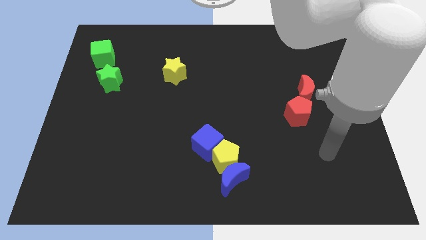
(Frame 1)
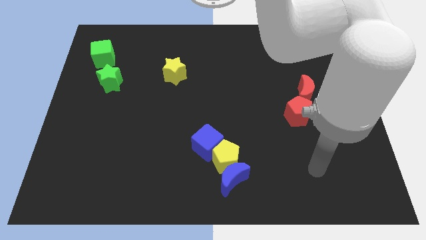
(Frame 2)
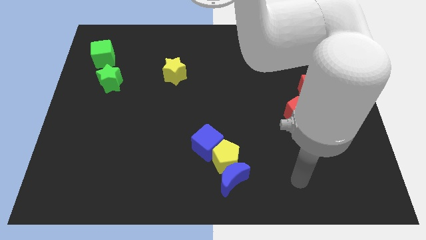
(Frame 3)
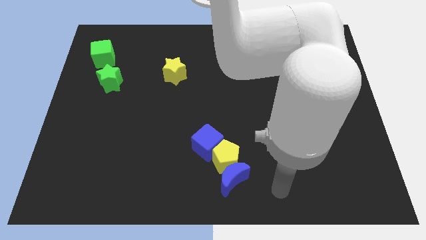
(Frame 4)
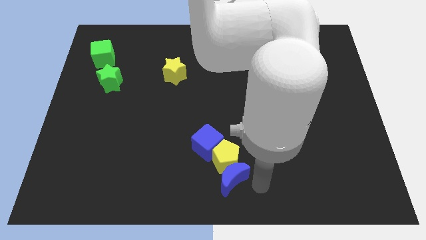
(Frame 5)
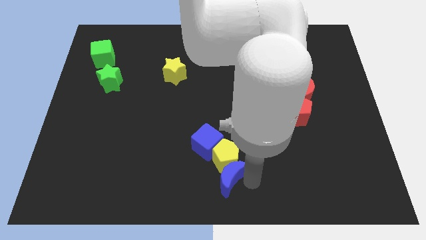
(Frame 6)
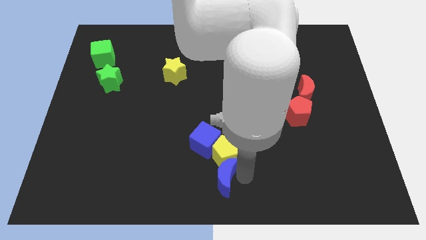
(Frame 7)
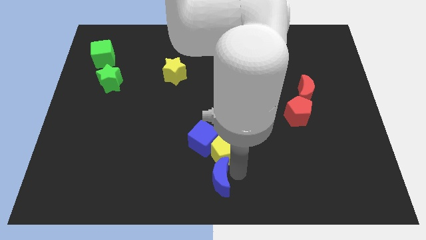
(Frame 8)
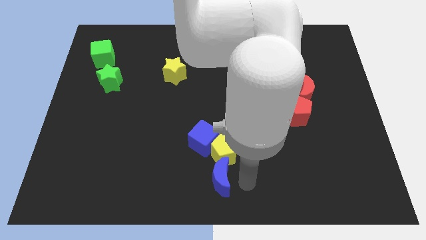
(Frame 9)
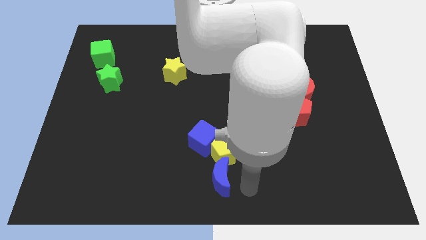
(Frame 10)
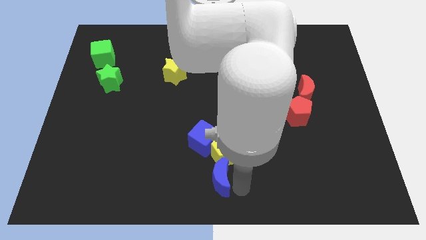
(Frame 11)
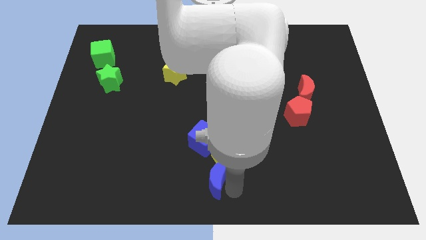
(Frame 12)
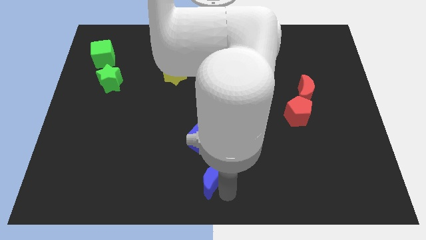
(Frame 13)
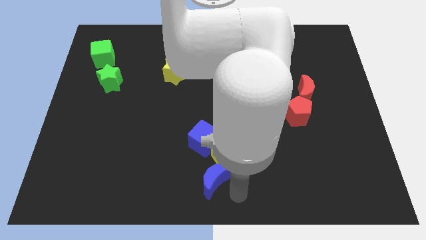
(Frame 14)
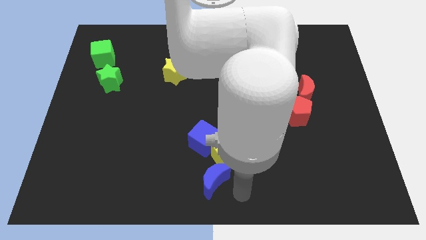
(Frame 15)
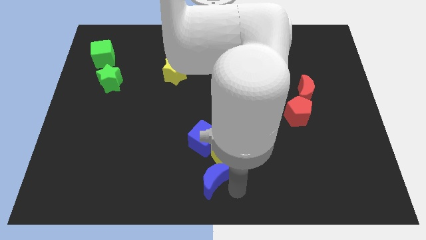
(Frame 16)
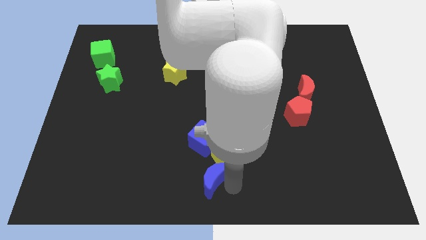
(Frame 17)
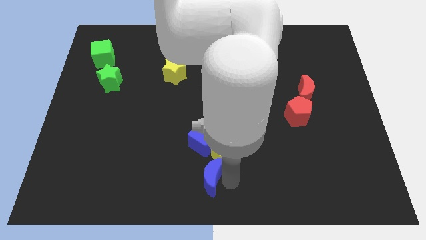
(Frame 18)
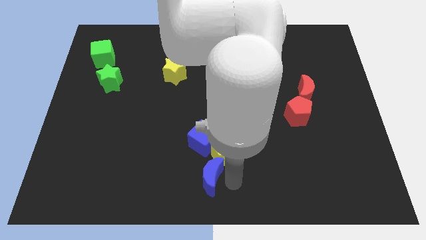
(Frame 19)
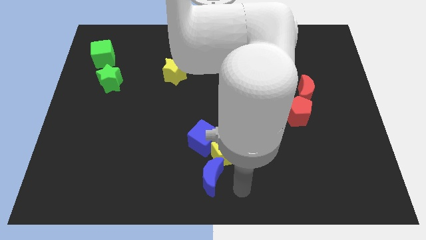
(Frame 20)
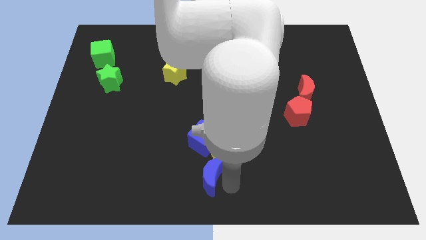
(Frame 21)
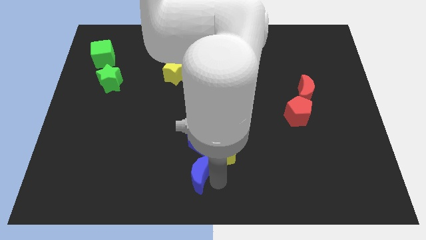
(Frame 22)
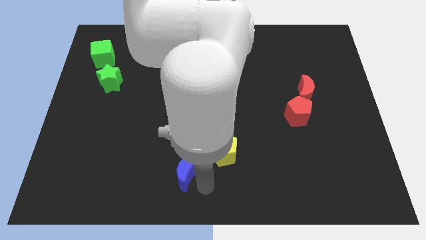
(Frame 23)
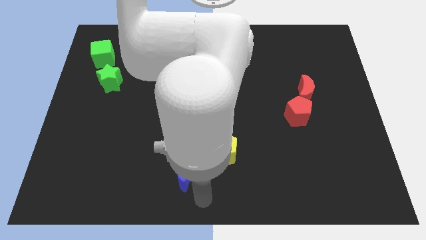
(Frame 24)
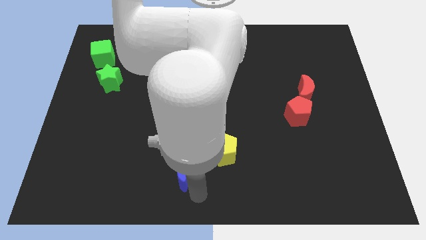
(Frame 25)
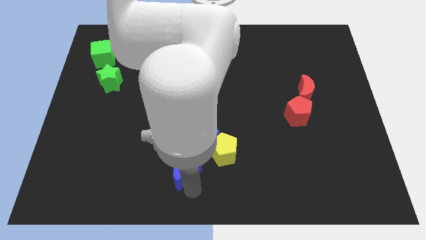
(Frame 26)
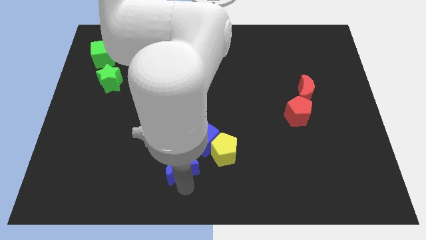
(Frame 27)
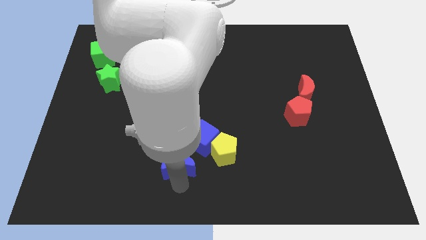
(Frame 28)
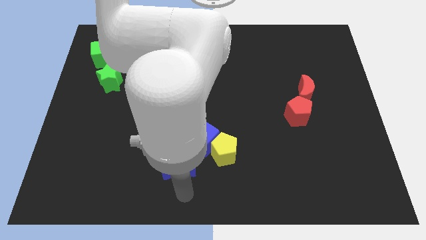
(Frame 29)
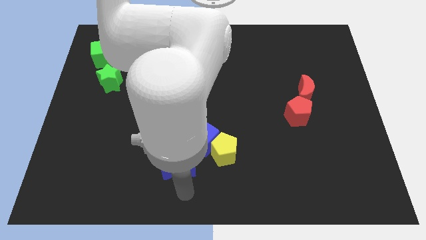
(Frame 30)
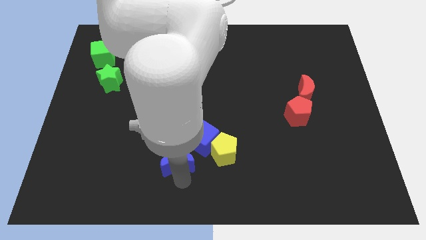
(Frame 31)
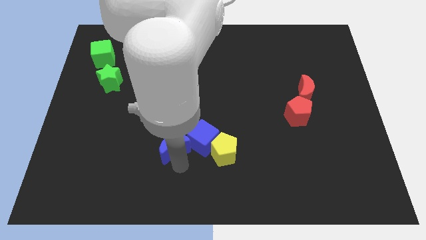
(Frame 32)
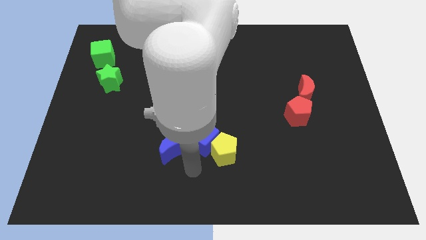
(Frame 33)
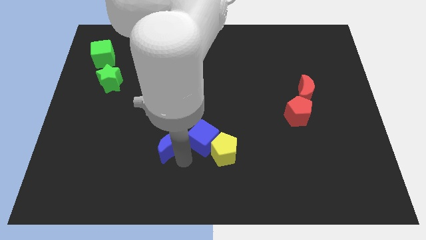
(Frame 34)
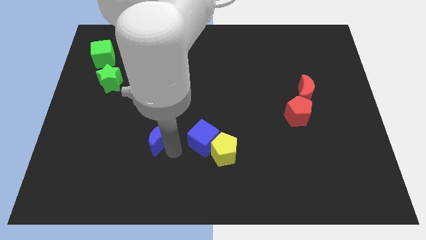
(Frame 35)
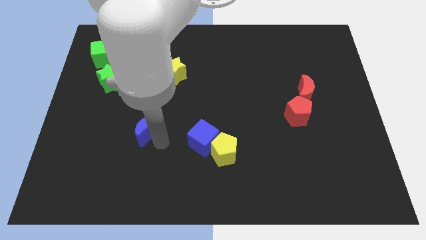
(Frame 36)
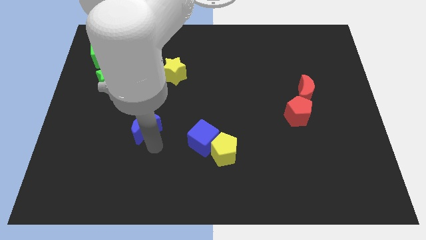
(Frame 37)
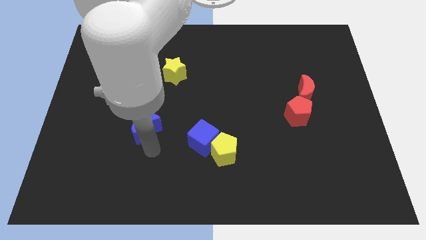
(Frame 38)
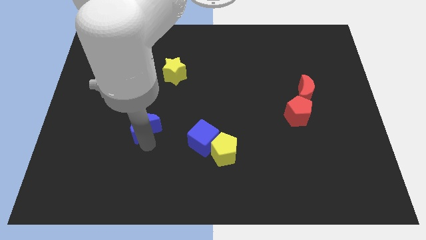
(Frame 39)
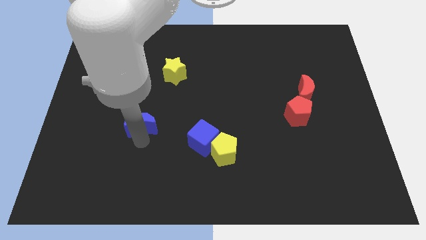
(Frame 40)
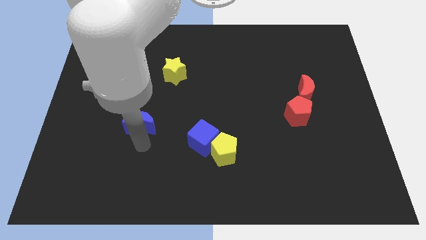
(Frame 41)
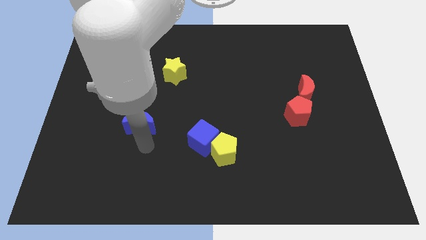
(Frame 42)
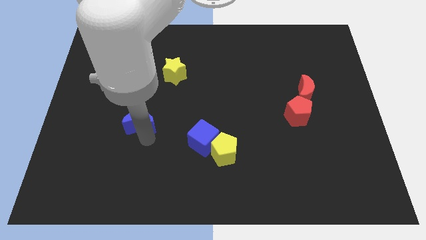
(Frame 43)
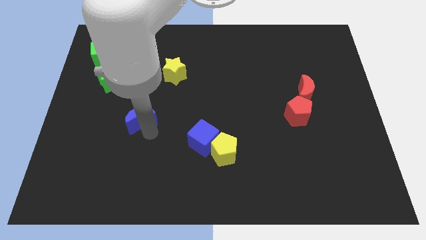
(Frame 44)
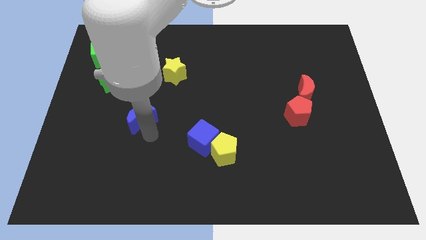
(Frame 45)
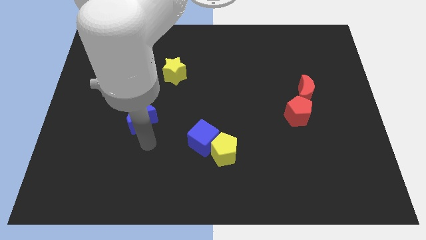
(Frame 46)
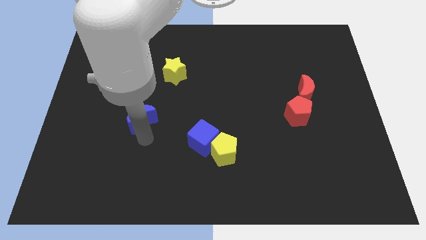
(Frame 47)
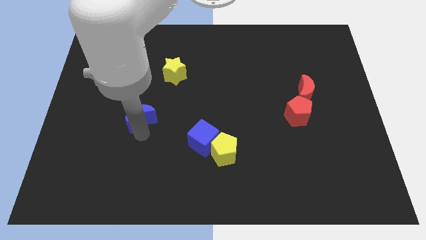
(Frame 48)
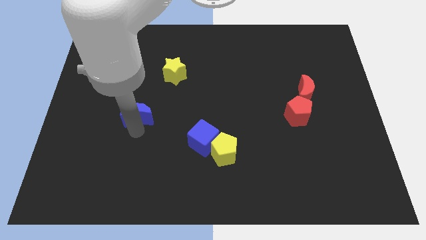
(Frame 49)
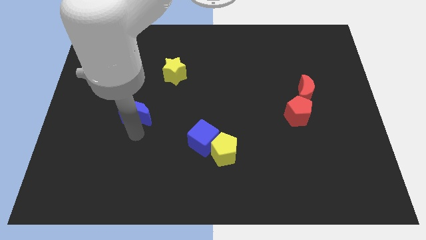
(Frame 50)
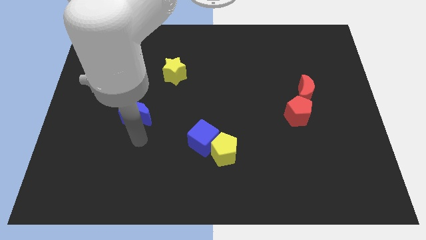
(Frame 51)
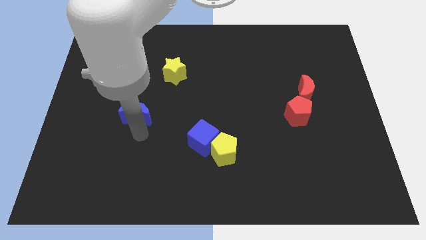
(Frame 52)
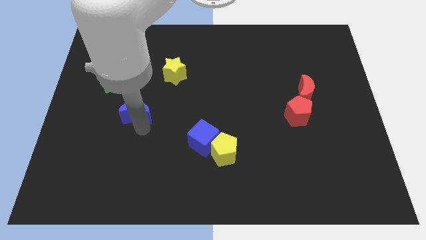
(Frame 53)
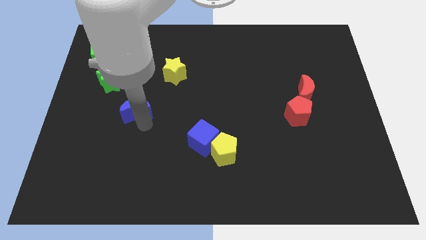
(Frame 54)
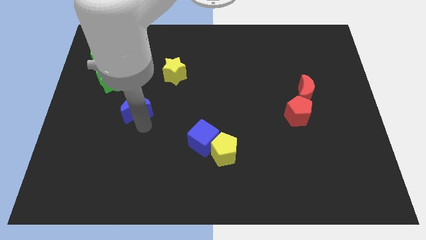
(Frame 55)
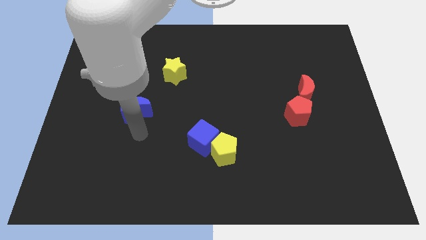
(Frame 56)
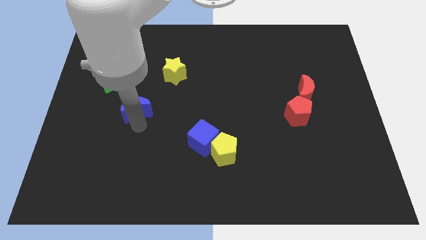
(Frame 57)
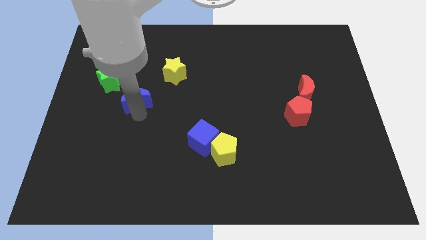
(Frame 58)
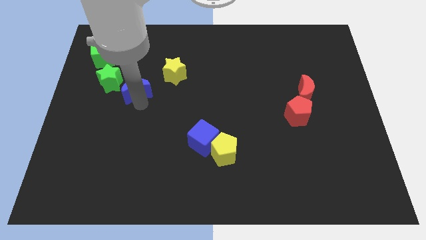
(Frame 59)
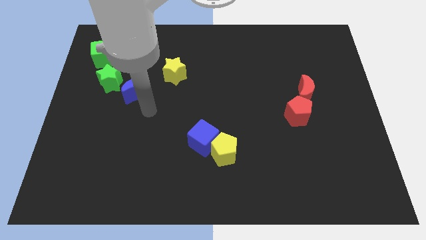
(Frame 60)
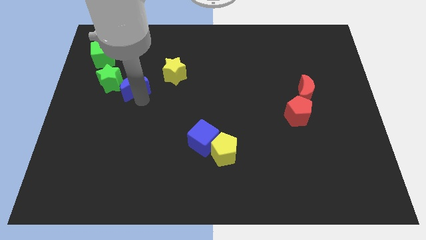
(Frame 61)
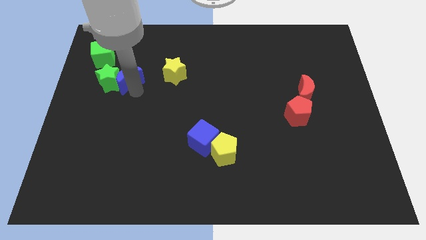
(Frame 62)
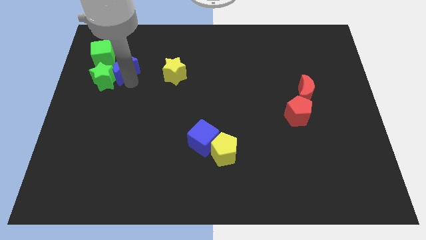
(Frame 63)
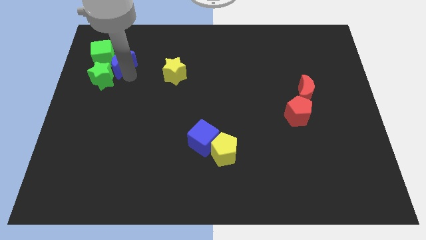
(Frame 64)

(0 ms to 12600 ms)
push the blue moon to the green cube

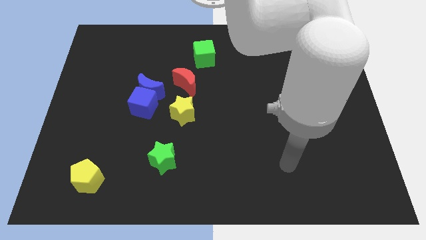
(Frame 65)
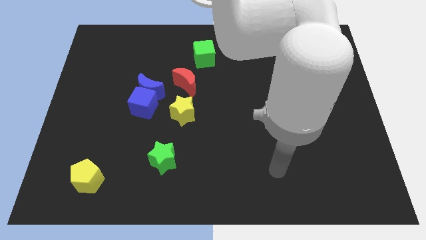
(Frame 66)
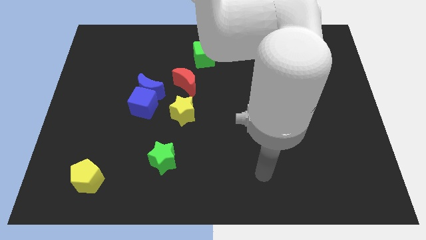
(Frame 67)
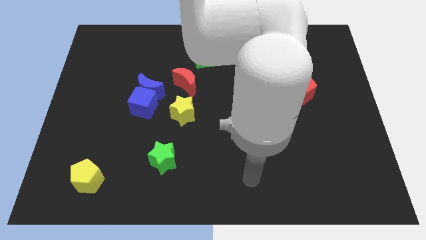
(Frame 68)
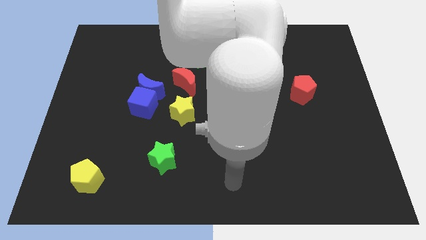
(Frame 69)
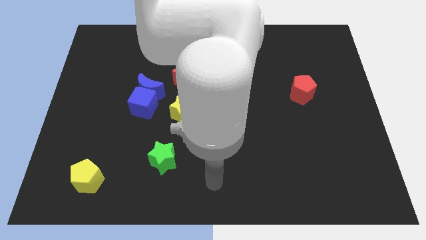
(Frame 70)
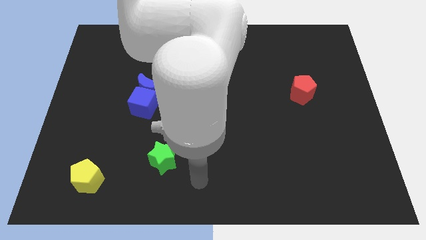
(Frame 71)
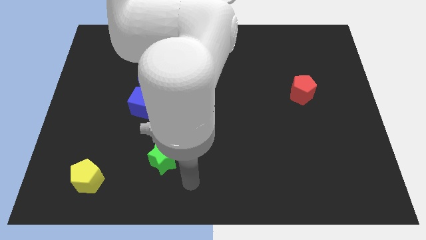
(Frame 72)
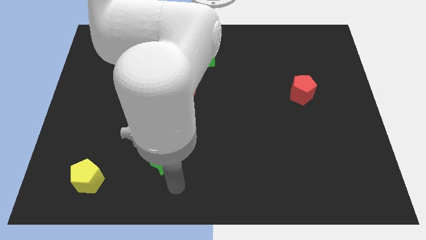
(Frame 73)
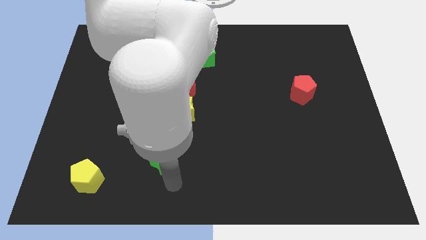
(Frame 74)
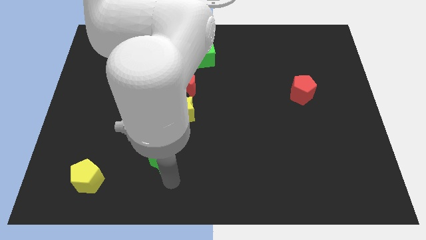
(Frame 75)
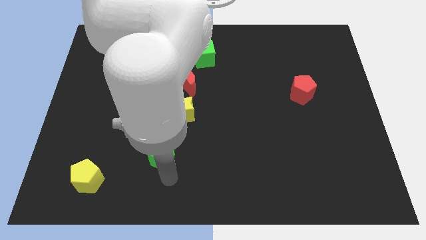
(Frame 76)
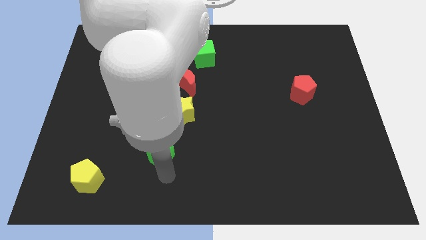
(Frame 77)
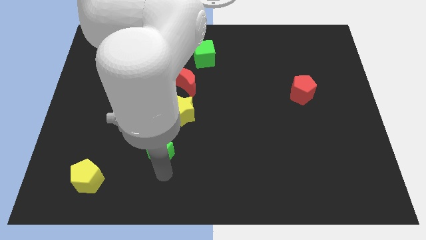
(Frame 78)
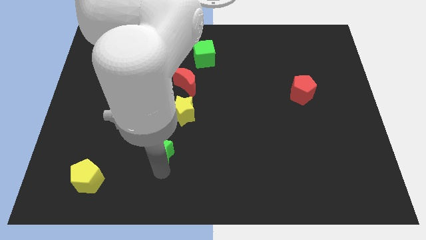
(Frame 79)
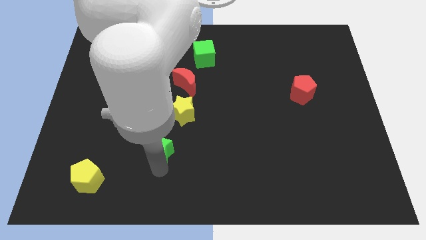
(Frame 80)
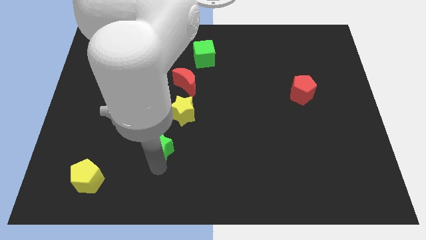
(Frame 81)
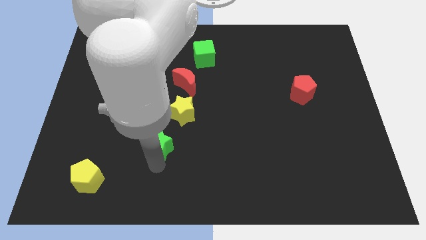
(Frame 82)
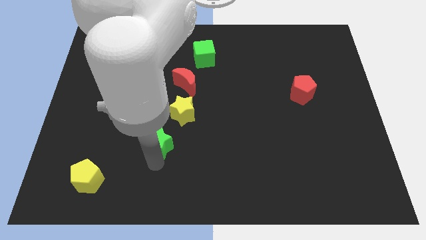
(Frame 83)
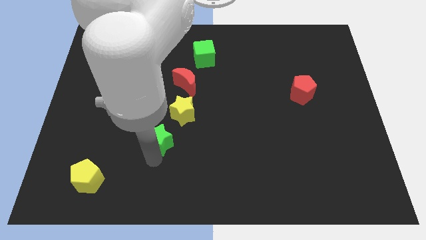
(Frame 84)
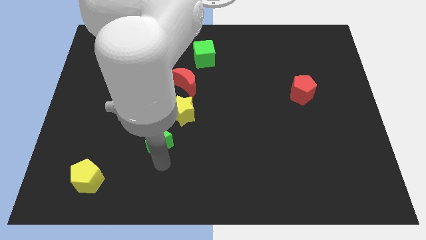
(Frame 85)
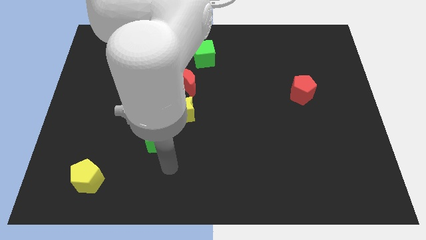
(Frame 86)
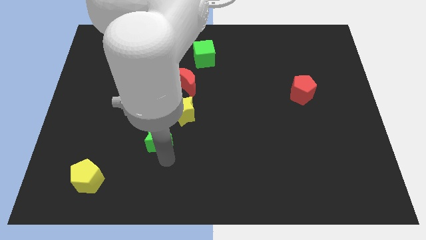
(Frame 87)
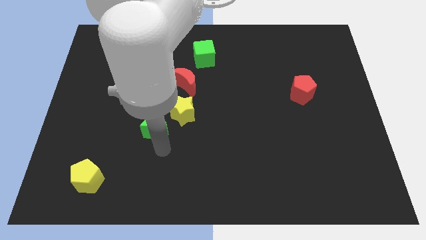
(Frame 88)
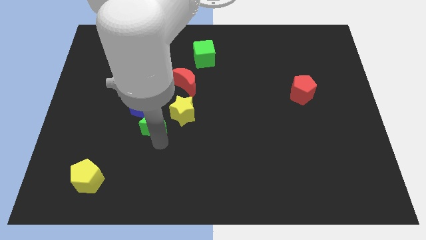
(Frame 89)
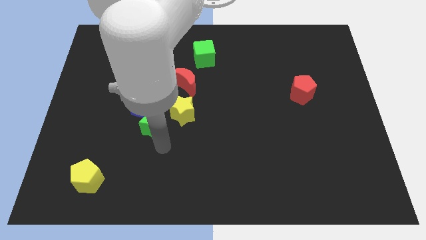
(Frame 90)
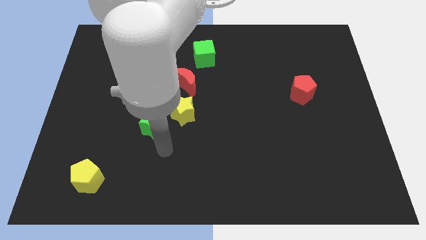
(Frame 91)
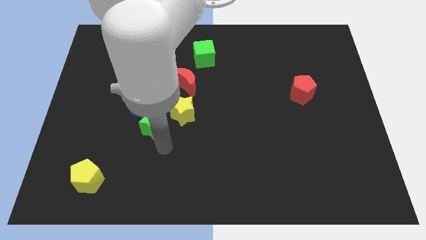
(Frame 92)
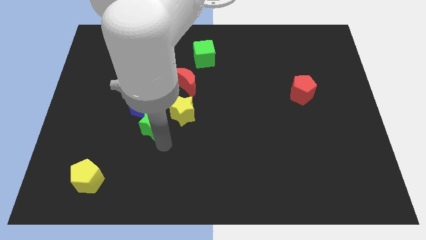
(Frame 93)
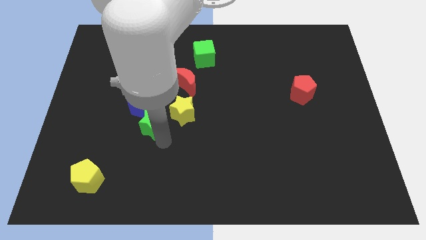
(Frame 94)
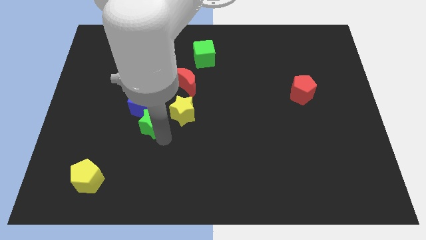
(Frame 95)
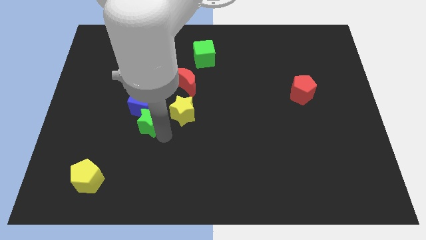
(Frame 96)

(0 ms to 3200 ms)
slide the green star to the blue cube
